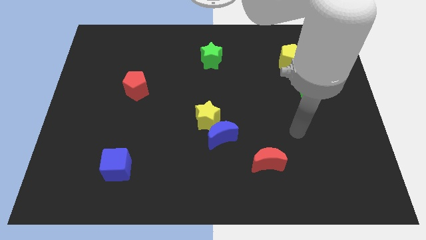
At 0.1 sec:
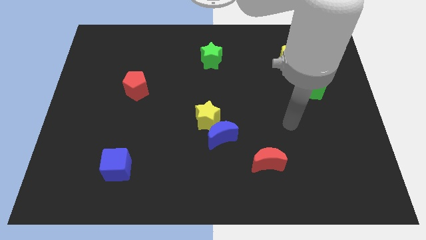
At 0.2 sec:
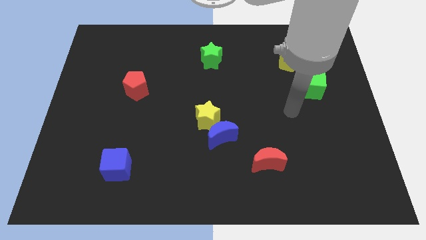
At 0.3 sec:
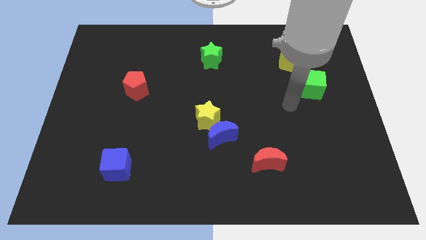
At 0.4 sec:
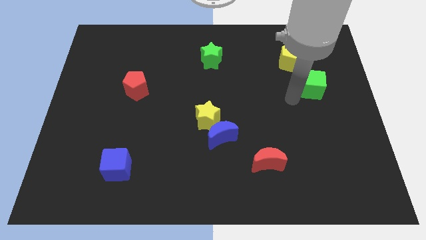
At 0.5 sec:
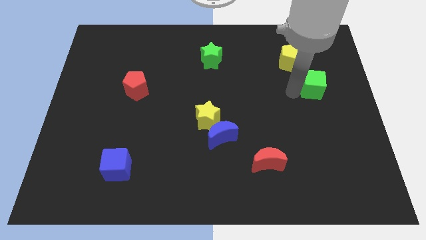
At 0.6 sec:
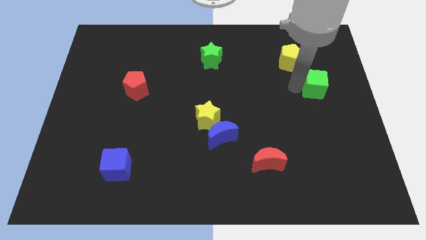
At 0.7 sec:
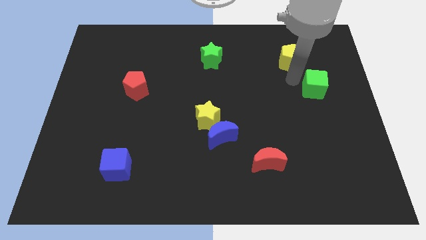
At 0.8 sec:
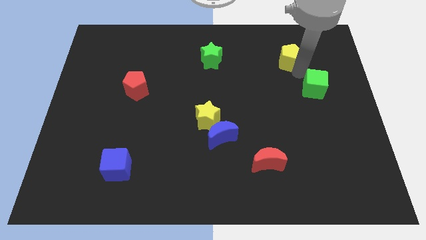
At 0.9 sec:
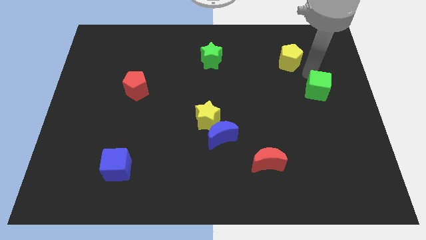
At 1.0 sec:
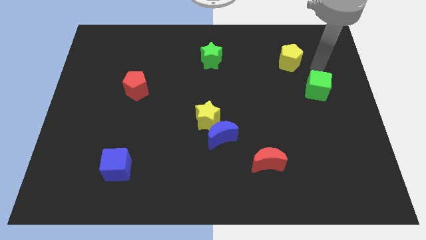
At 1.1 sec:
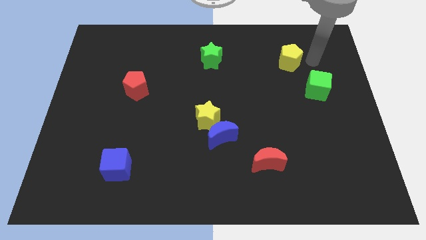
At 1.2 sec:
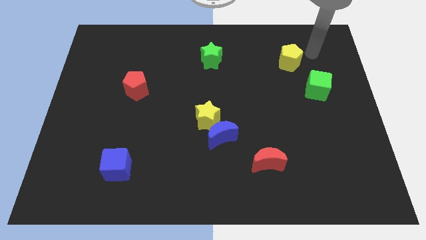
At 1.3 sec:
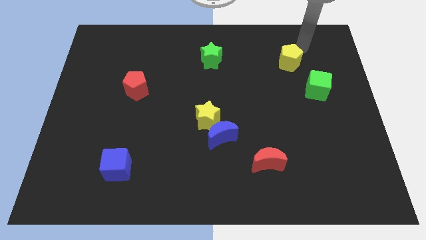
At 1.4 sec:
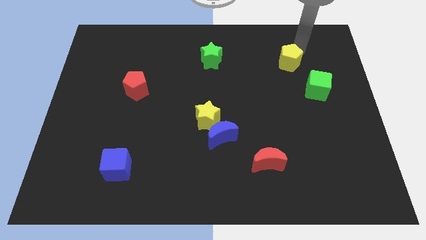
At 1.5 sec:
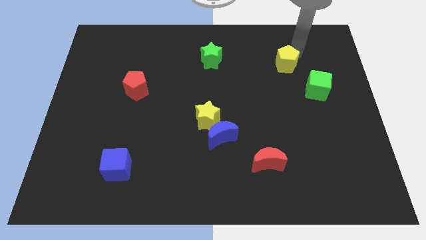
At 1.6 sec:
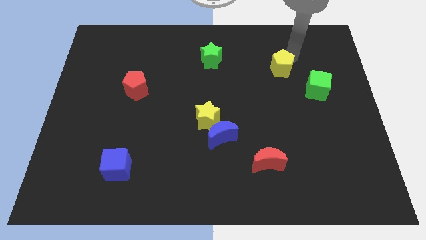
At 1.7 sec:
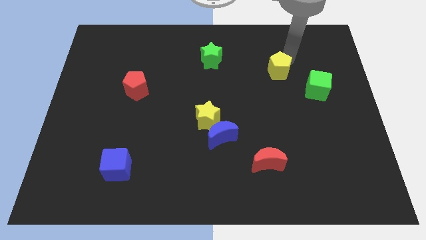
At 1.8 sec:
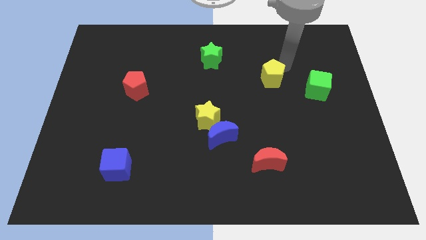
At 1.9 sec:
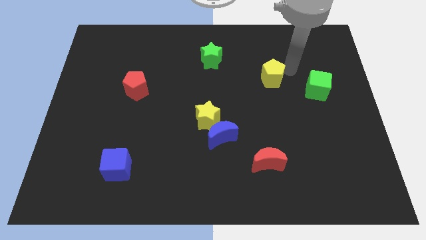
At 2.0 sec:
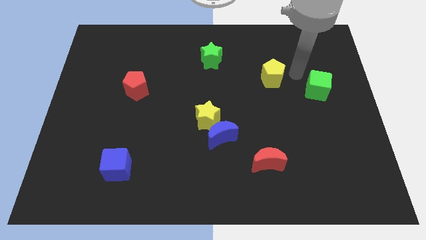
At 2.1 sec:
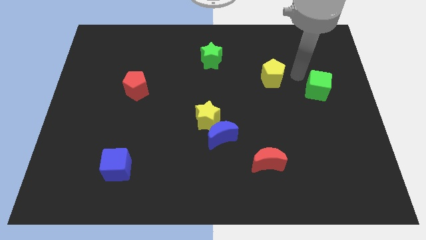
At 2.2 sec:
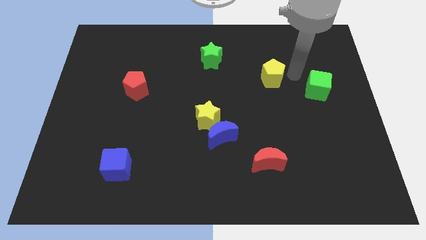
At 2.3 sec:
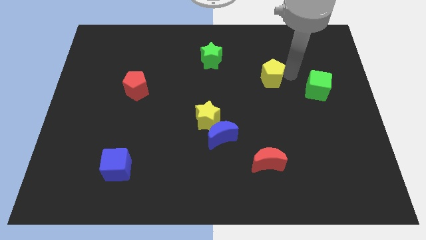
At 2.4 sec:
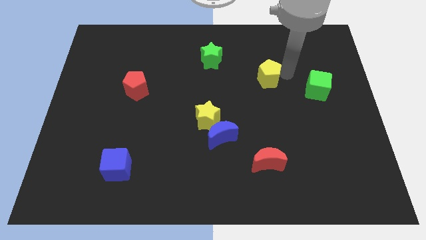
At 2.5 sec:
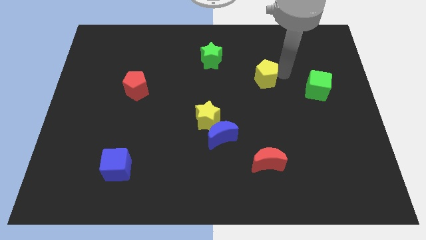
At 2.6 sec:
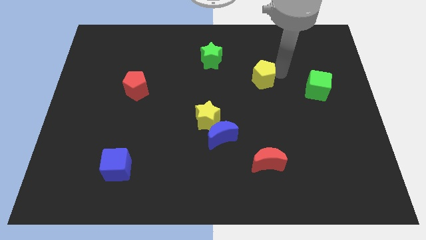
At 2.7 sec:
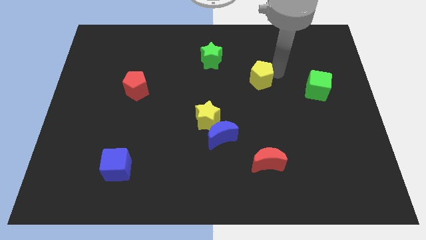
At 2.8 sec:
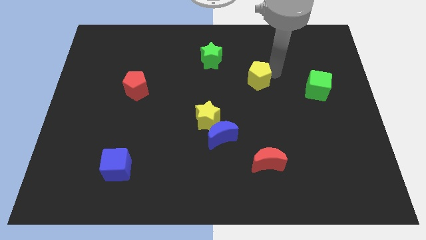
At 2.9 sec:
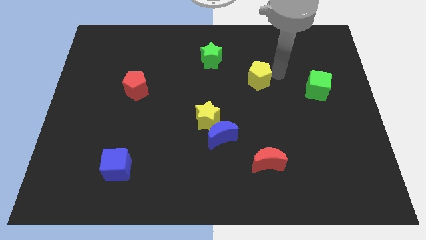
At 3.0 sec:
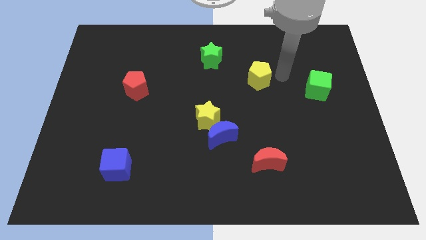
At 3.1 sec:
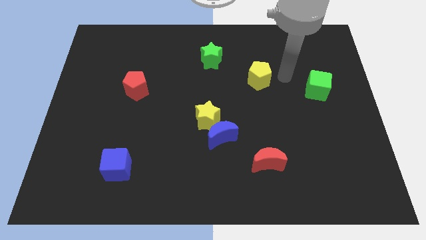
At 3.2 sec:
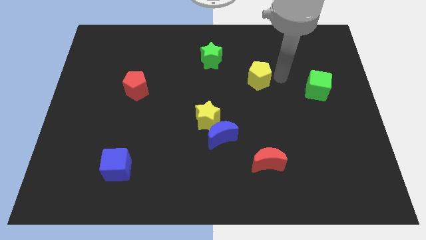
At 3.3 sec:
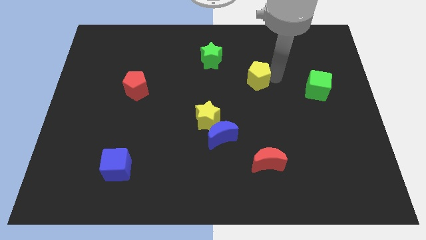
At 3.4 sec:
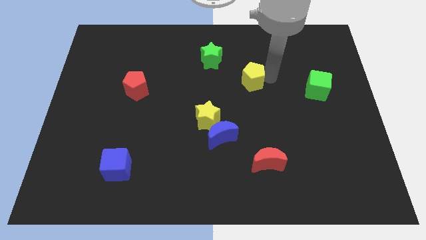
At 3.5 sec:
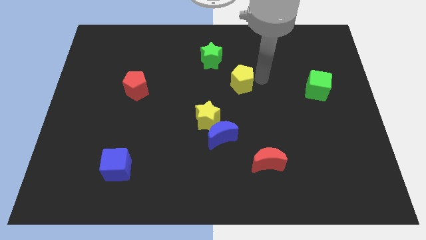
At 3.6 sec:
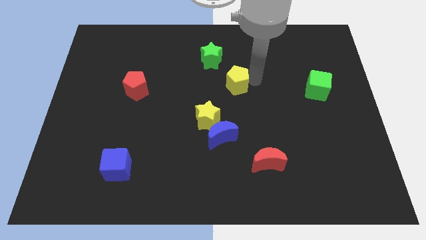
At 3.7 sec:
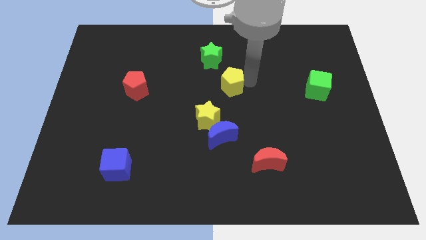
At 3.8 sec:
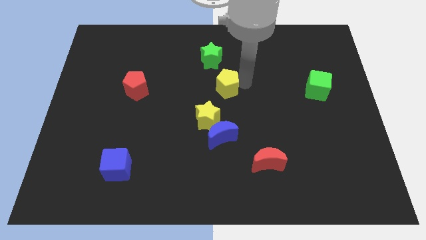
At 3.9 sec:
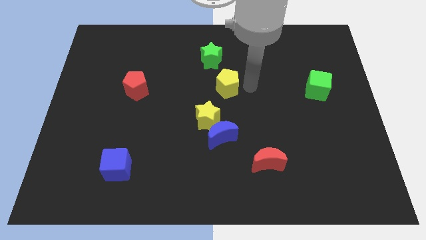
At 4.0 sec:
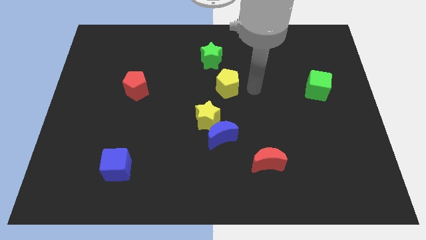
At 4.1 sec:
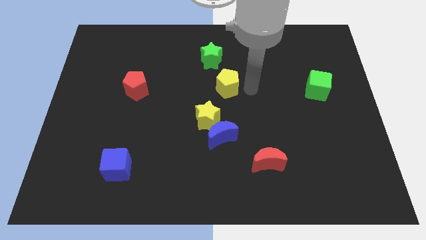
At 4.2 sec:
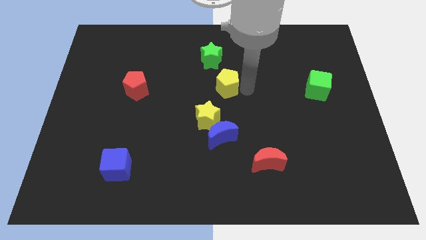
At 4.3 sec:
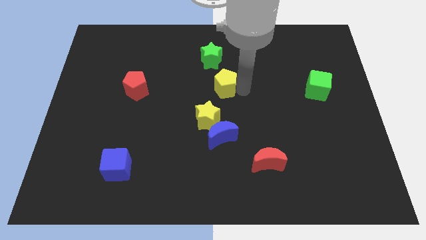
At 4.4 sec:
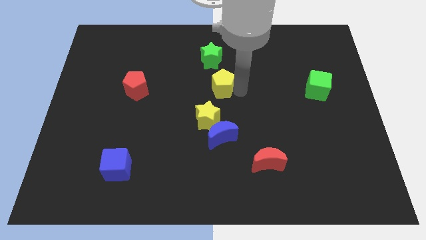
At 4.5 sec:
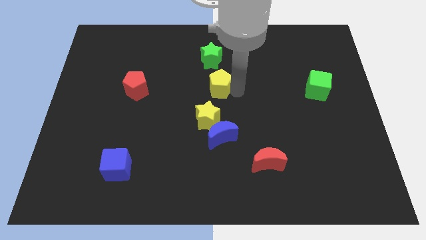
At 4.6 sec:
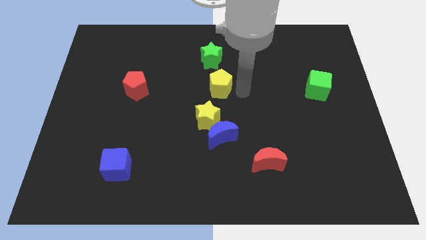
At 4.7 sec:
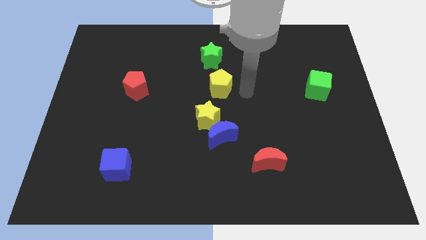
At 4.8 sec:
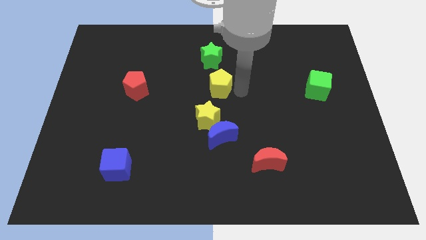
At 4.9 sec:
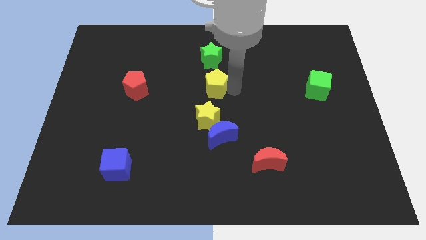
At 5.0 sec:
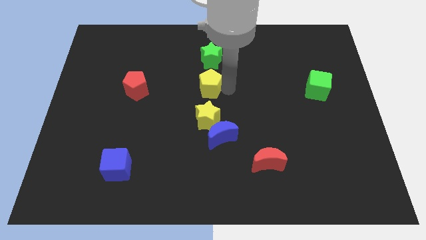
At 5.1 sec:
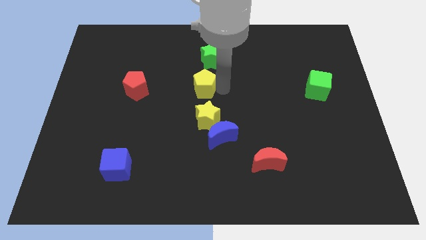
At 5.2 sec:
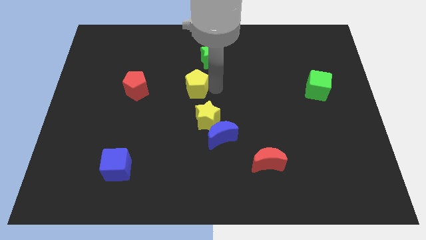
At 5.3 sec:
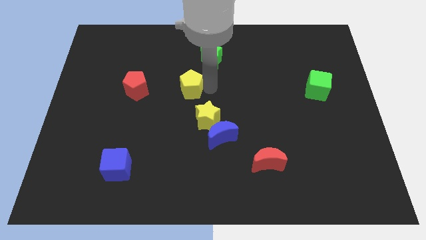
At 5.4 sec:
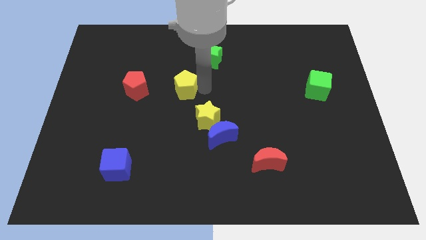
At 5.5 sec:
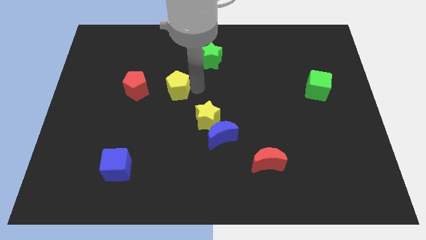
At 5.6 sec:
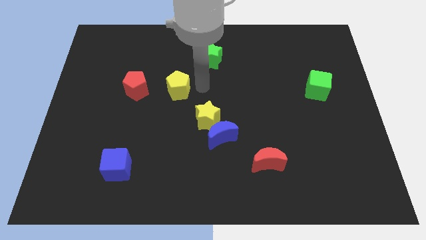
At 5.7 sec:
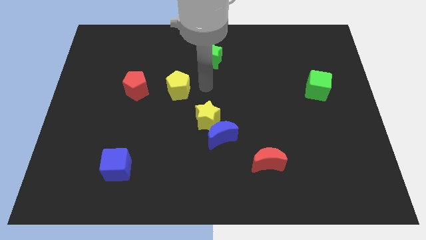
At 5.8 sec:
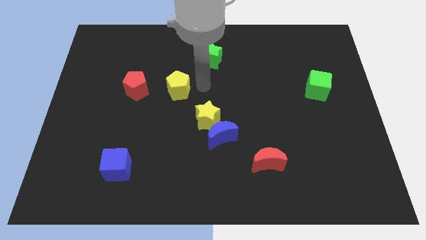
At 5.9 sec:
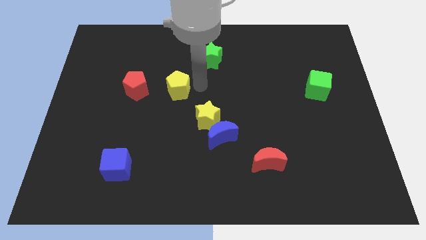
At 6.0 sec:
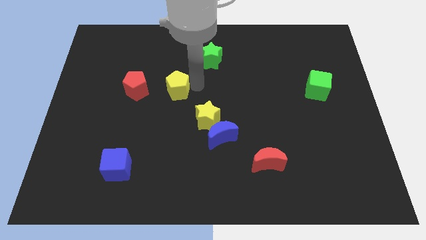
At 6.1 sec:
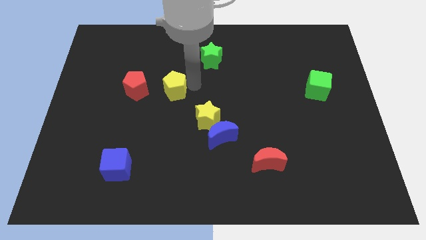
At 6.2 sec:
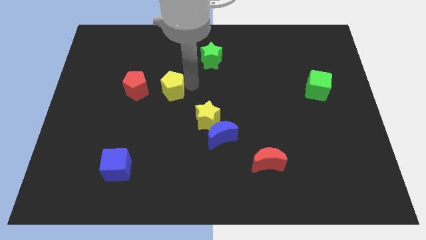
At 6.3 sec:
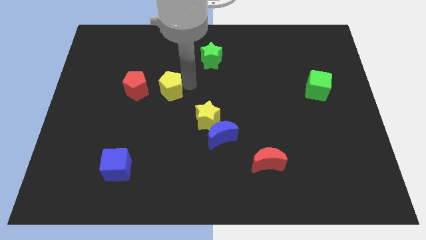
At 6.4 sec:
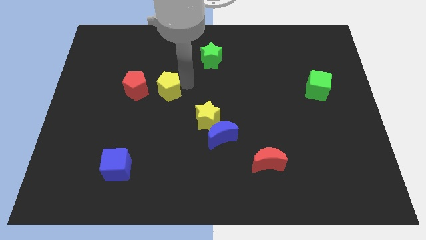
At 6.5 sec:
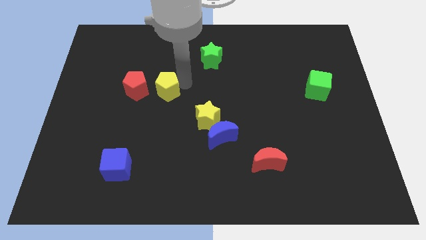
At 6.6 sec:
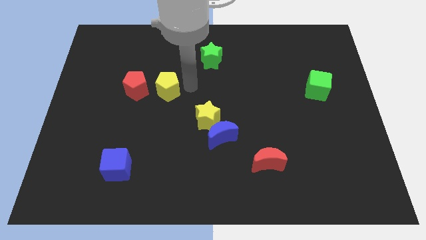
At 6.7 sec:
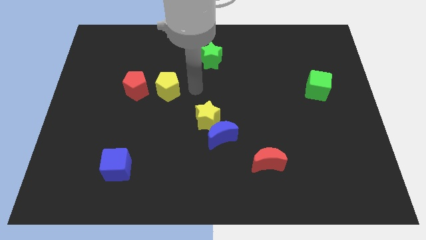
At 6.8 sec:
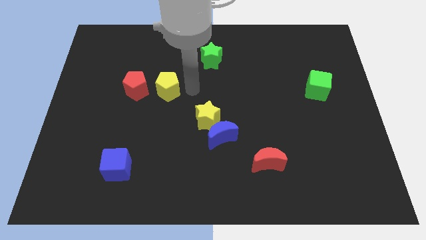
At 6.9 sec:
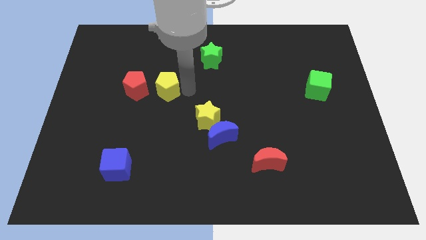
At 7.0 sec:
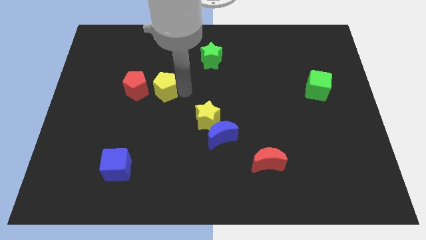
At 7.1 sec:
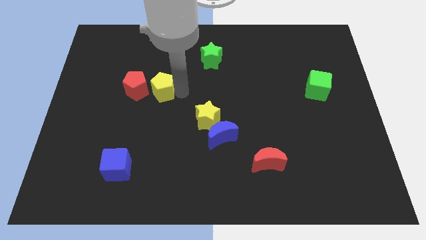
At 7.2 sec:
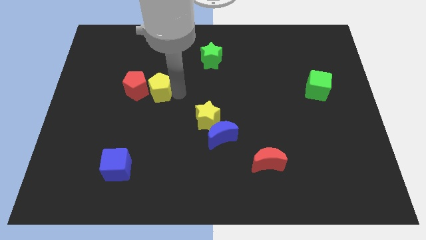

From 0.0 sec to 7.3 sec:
push the yellow pentagon to the red pentagon
